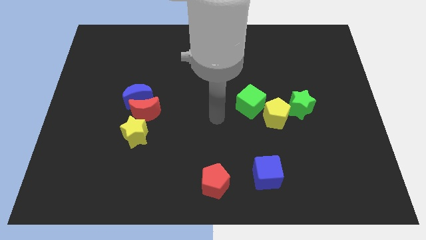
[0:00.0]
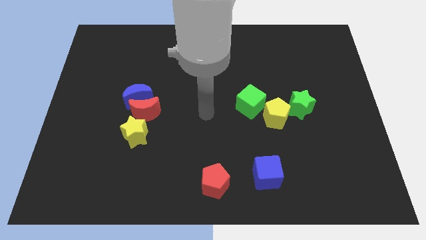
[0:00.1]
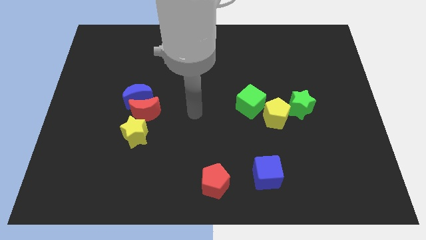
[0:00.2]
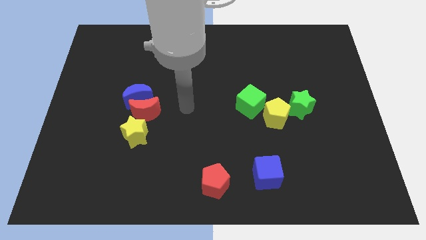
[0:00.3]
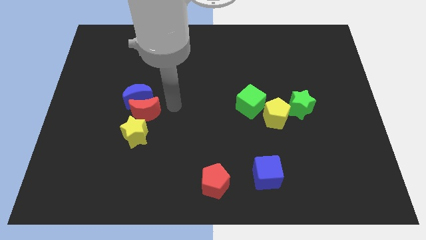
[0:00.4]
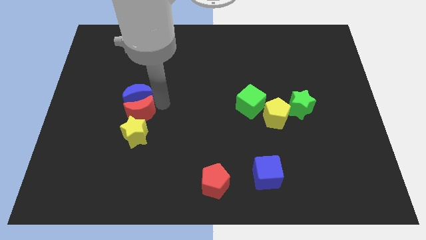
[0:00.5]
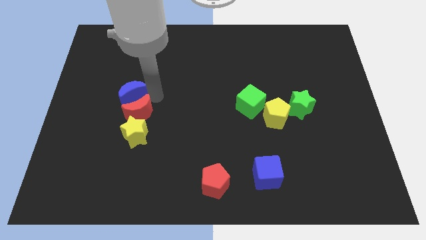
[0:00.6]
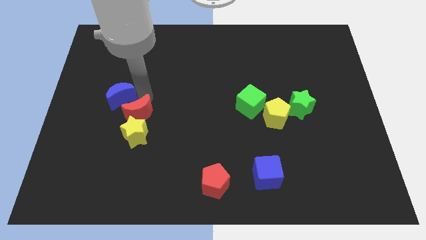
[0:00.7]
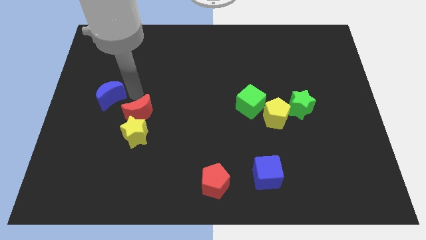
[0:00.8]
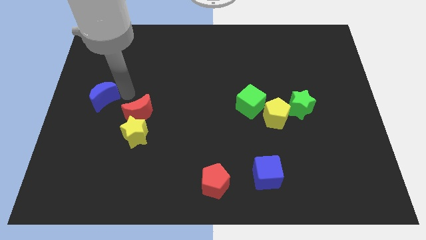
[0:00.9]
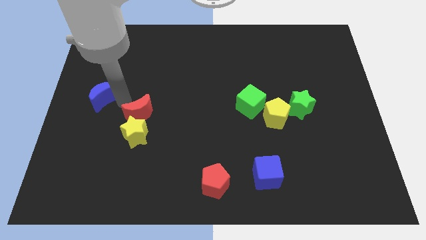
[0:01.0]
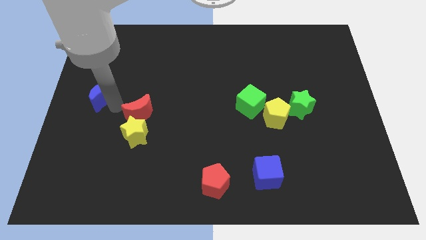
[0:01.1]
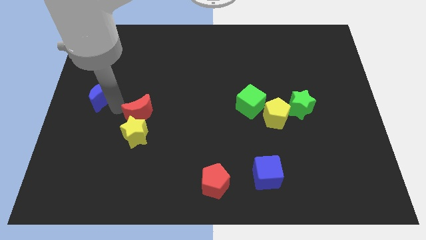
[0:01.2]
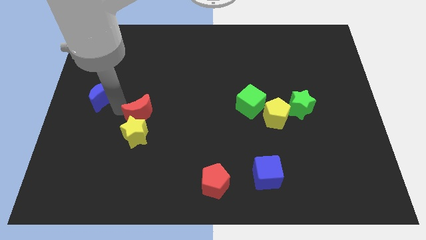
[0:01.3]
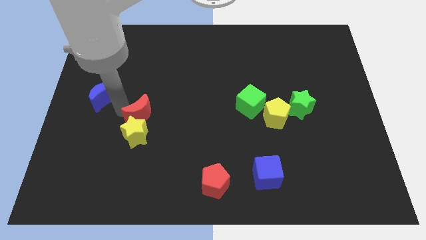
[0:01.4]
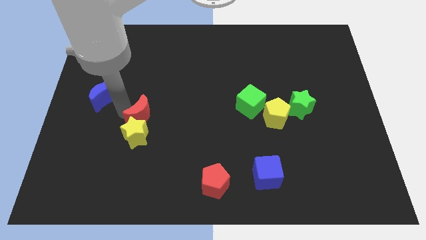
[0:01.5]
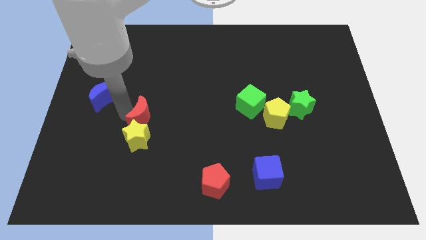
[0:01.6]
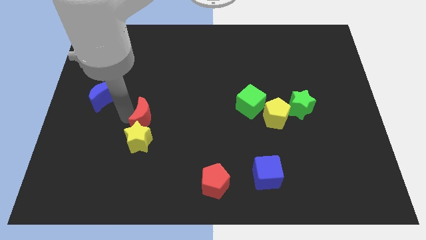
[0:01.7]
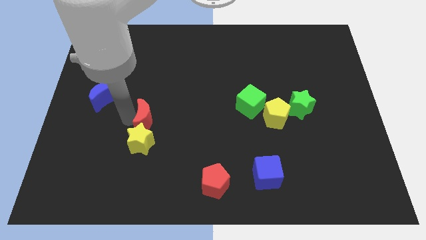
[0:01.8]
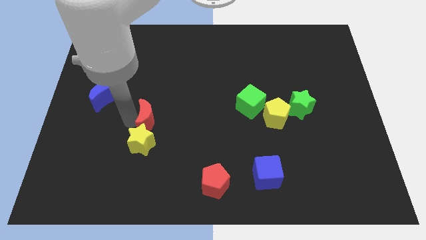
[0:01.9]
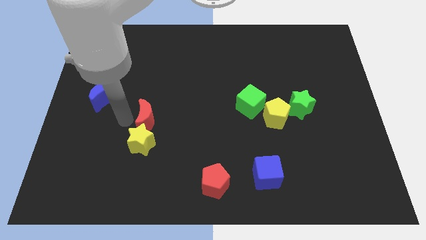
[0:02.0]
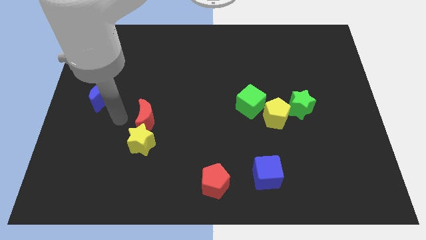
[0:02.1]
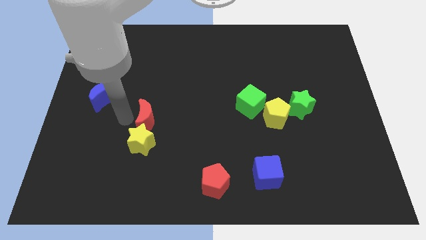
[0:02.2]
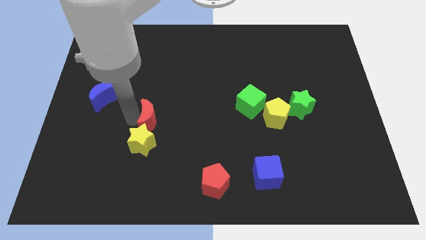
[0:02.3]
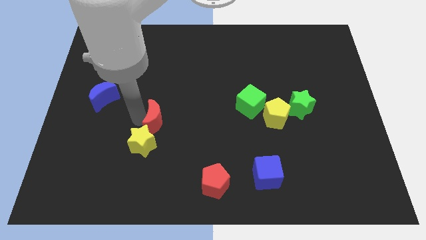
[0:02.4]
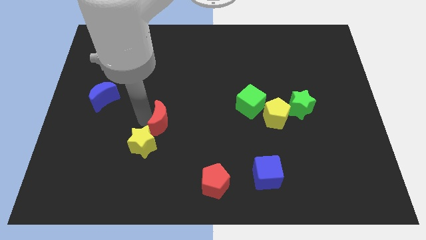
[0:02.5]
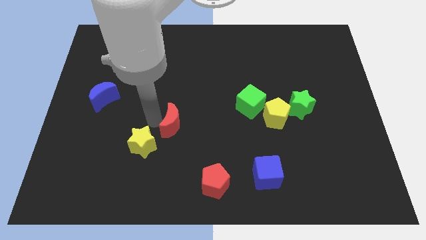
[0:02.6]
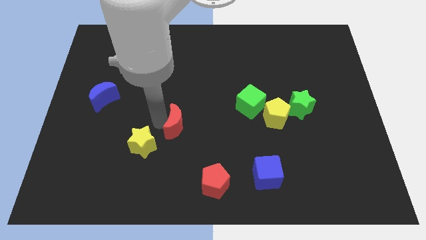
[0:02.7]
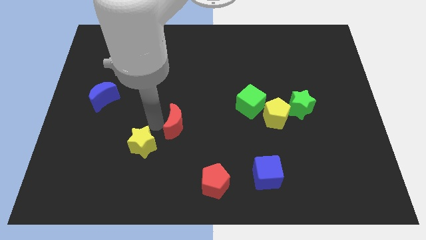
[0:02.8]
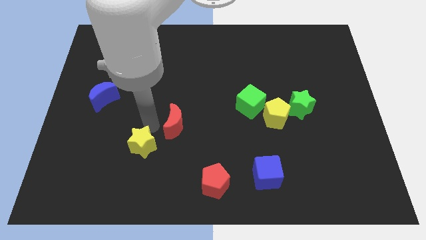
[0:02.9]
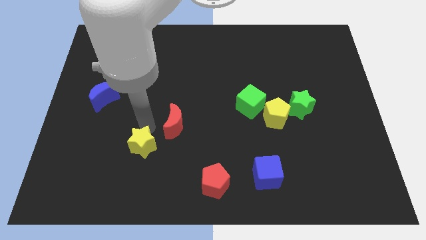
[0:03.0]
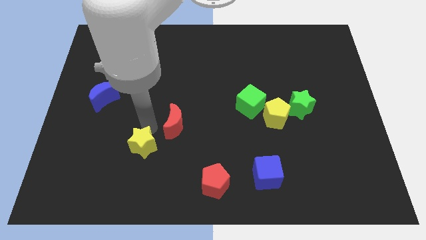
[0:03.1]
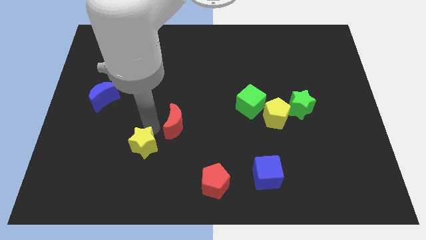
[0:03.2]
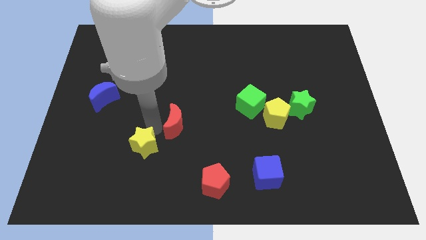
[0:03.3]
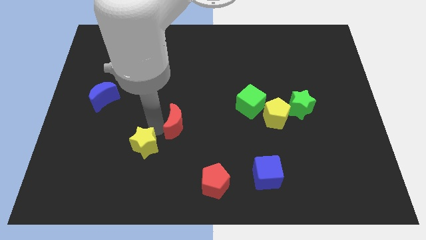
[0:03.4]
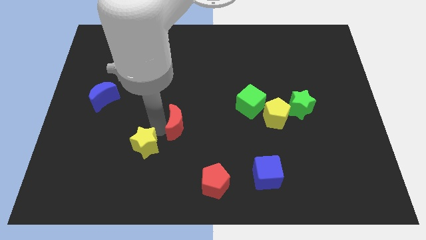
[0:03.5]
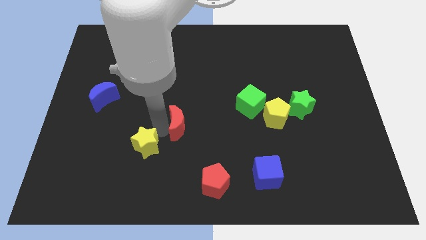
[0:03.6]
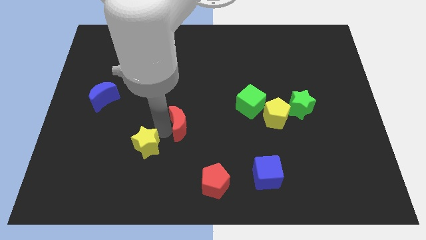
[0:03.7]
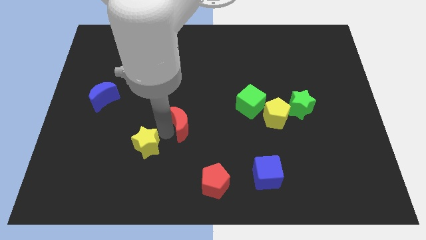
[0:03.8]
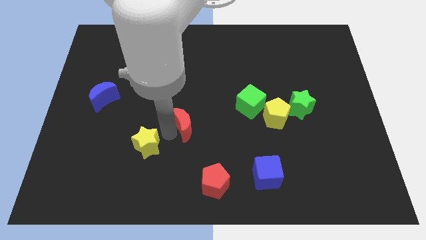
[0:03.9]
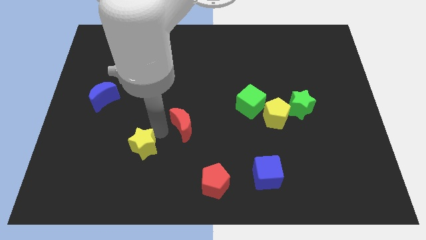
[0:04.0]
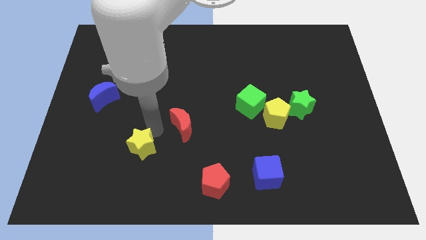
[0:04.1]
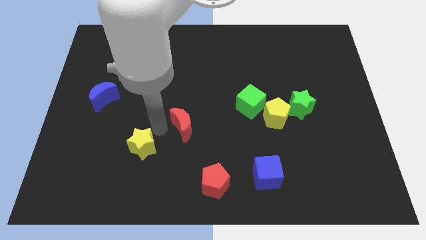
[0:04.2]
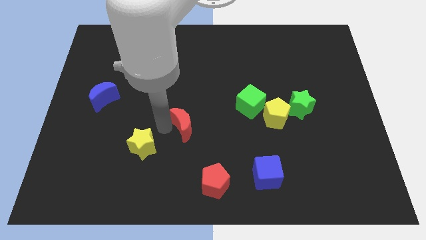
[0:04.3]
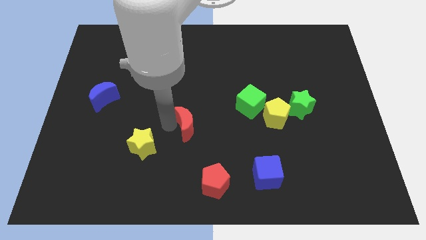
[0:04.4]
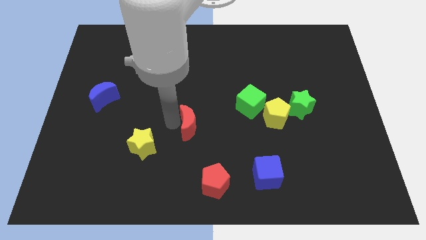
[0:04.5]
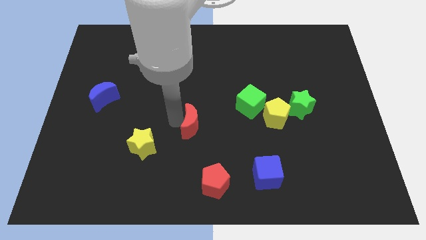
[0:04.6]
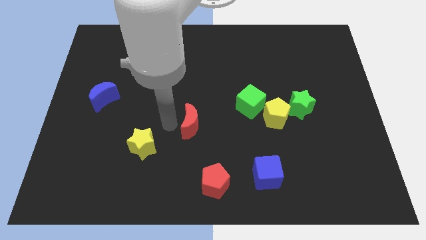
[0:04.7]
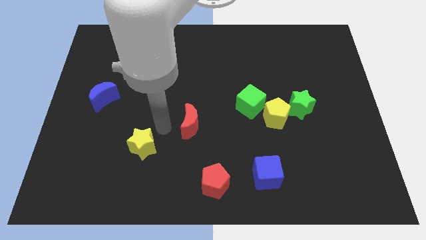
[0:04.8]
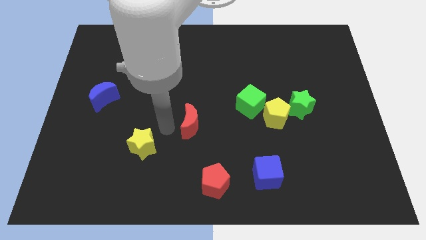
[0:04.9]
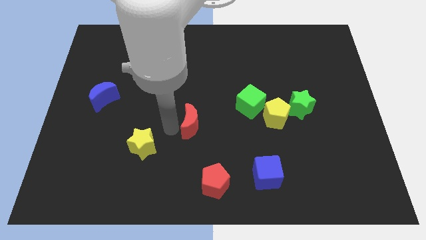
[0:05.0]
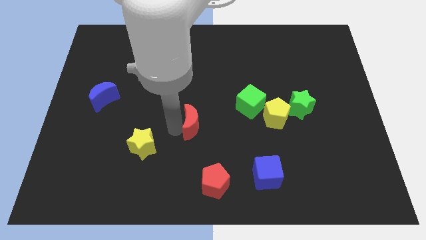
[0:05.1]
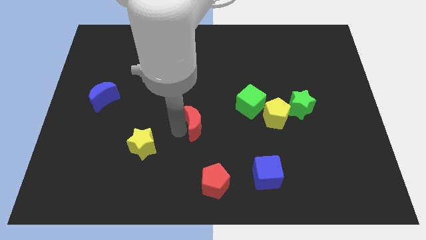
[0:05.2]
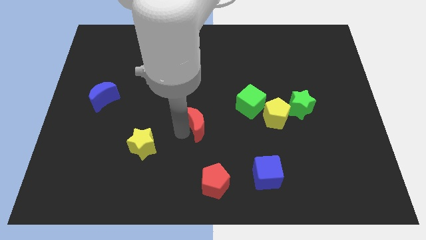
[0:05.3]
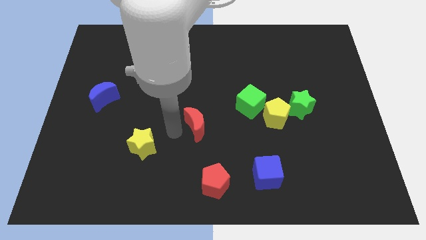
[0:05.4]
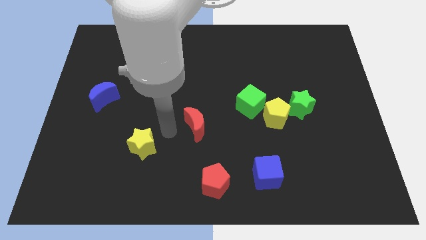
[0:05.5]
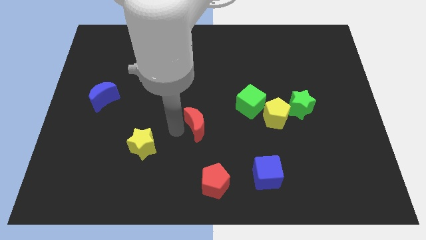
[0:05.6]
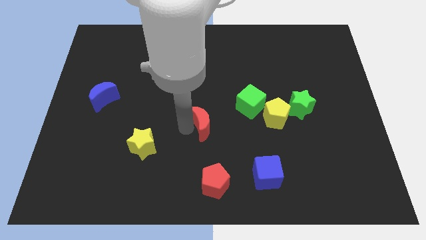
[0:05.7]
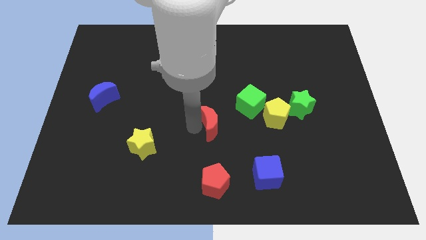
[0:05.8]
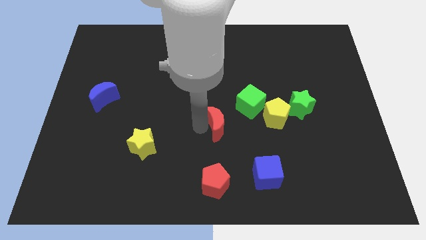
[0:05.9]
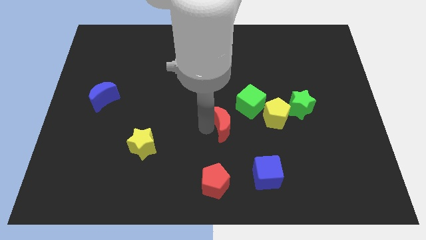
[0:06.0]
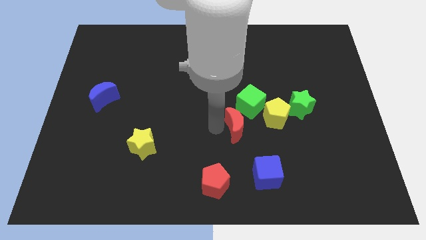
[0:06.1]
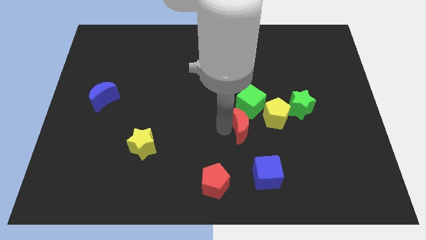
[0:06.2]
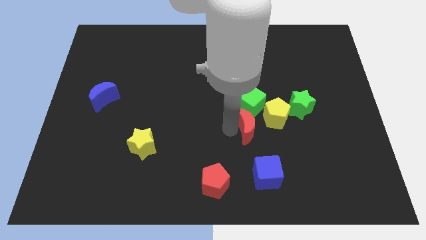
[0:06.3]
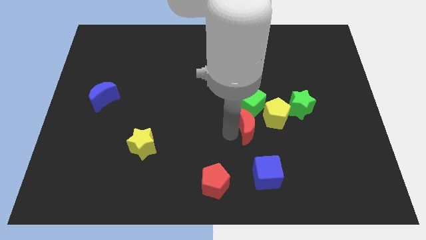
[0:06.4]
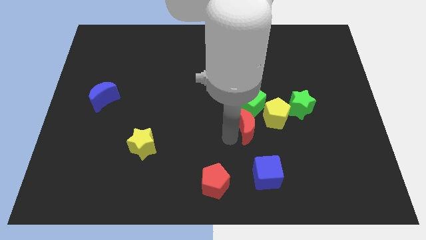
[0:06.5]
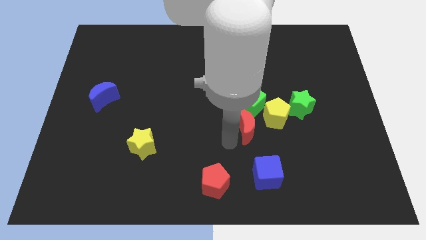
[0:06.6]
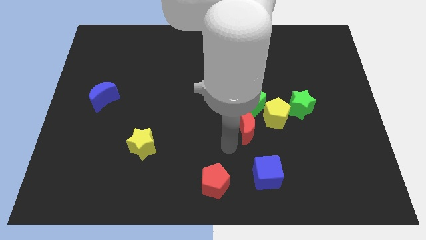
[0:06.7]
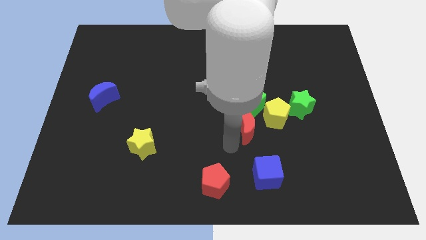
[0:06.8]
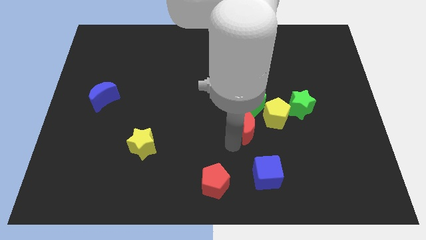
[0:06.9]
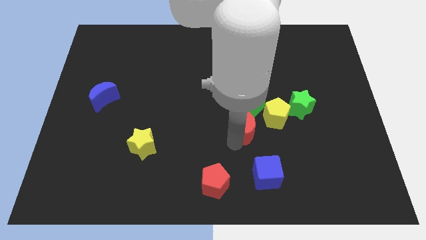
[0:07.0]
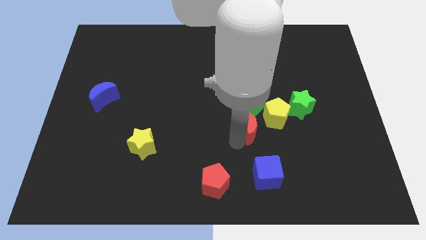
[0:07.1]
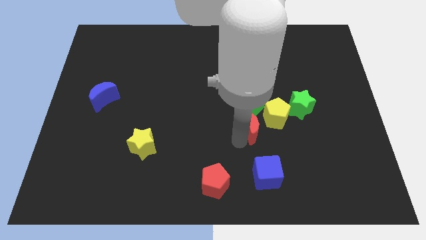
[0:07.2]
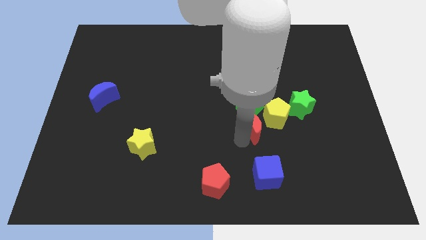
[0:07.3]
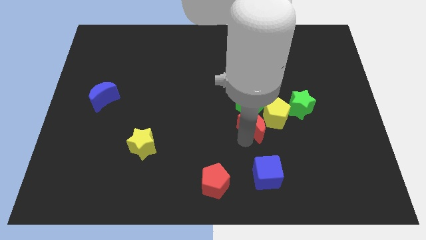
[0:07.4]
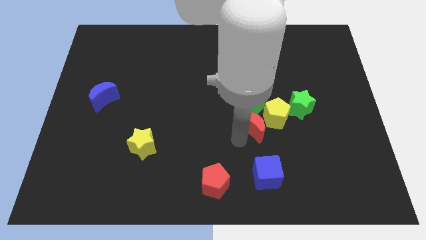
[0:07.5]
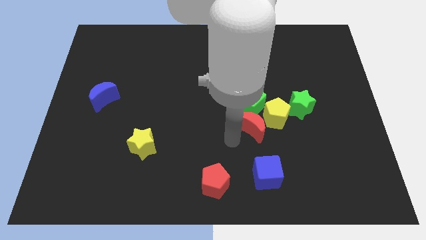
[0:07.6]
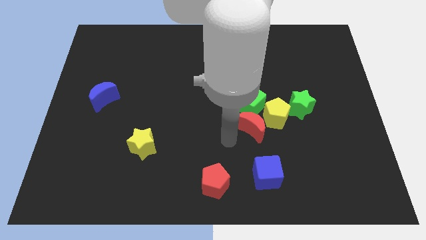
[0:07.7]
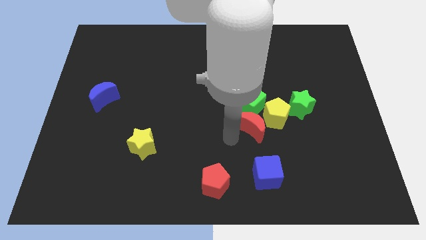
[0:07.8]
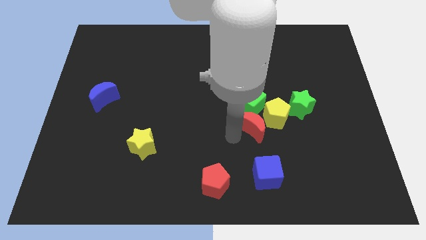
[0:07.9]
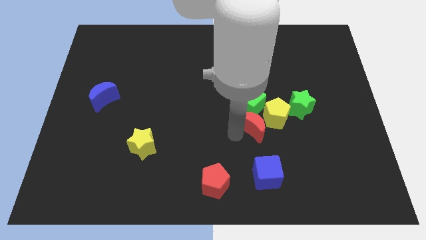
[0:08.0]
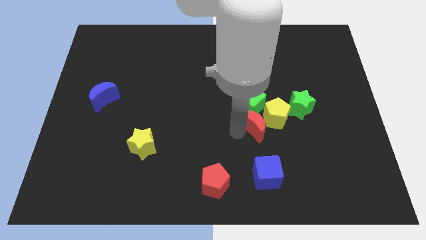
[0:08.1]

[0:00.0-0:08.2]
move the red moon towards the yellow pentagon
